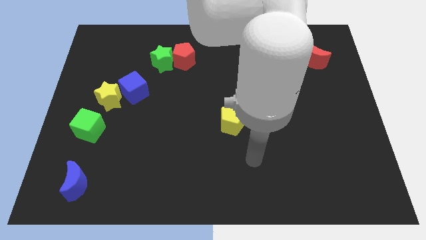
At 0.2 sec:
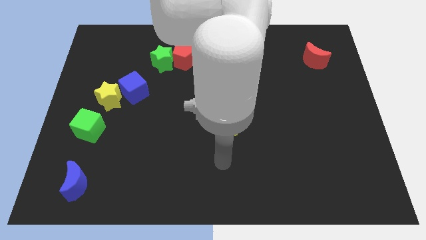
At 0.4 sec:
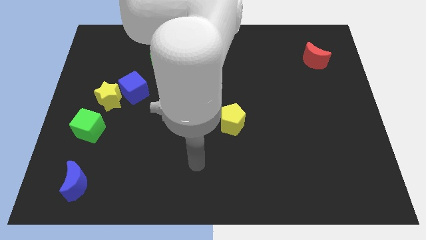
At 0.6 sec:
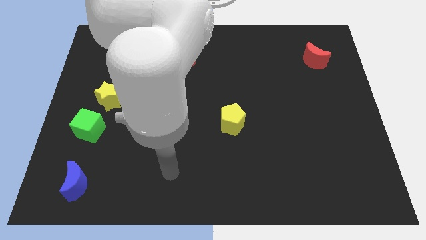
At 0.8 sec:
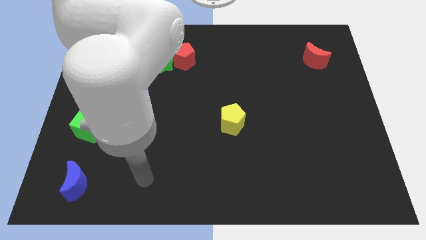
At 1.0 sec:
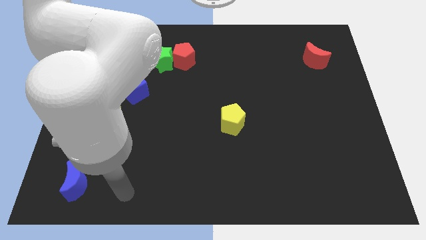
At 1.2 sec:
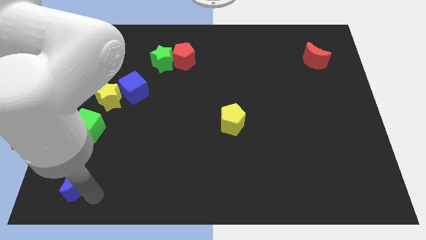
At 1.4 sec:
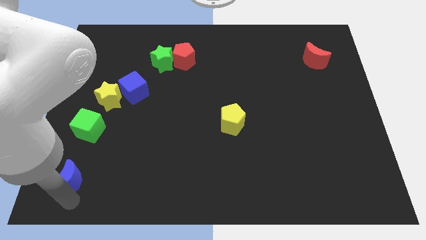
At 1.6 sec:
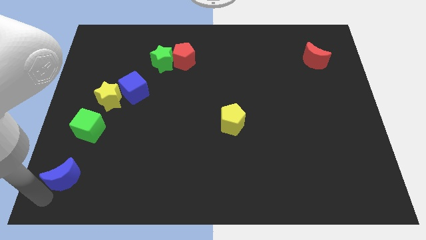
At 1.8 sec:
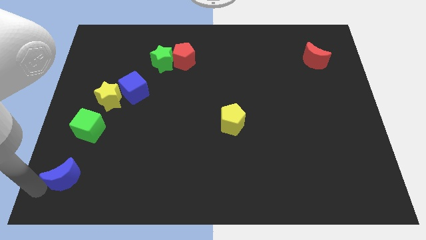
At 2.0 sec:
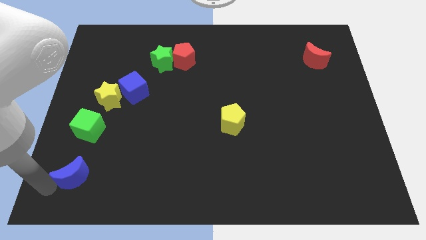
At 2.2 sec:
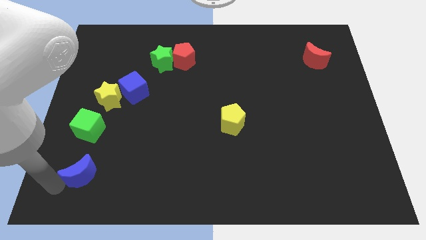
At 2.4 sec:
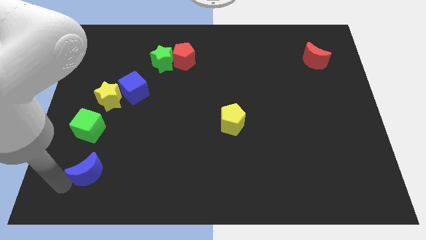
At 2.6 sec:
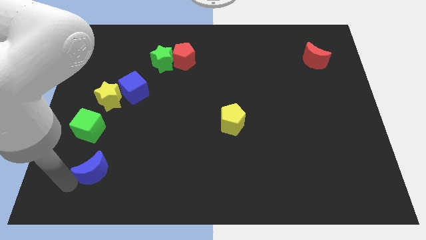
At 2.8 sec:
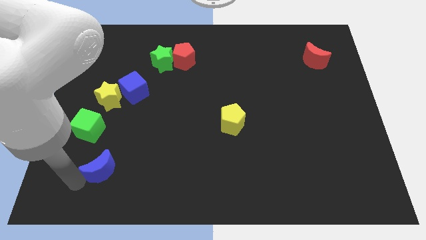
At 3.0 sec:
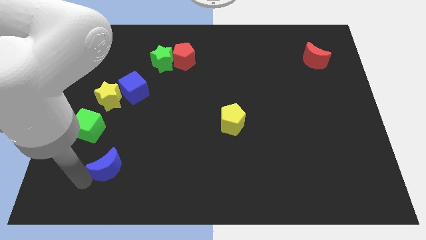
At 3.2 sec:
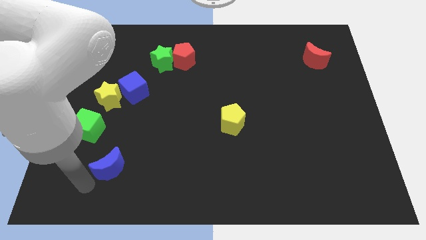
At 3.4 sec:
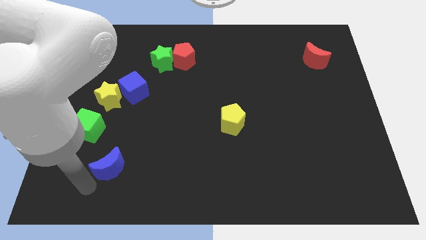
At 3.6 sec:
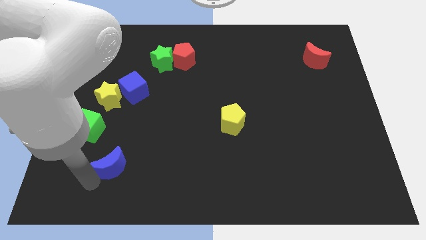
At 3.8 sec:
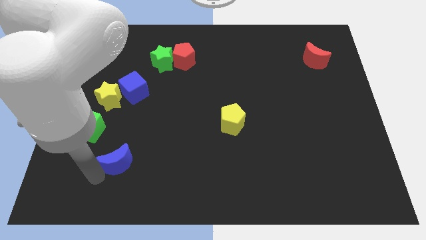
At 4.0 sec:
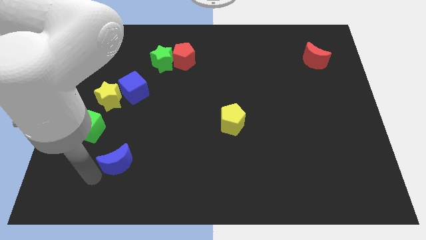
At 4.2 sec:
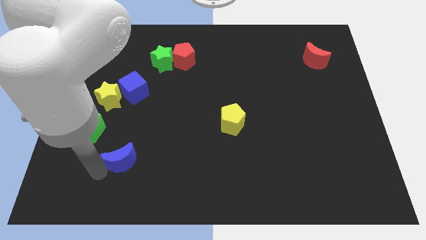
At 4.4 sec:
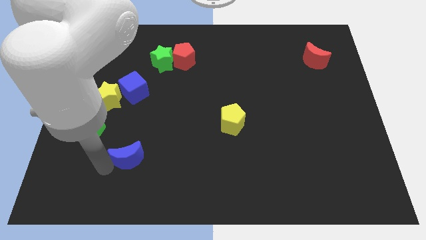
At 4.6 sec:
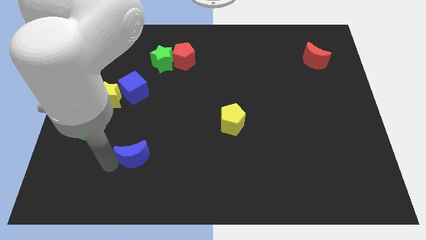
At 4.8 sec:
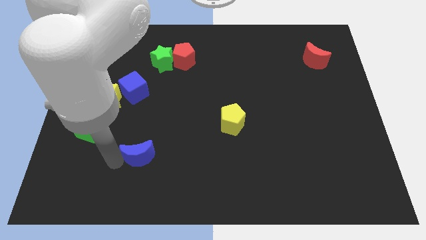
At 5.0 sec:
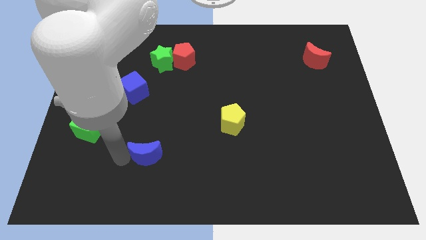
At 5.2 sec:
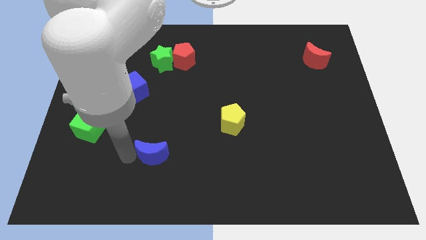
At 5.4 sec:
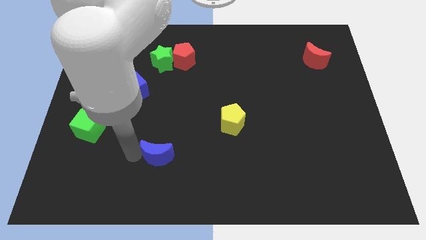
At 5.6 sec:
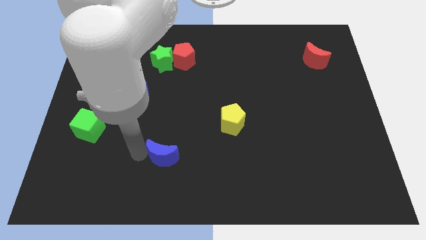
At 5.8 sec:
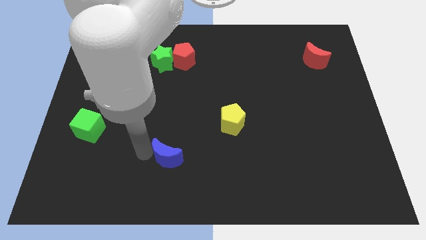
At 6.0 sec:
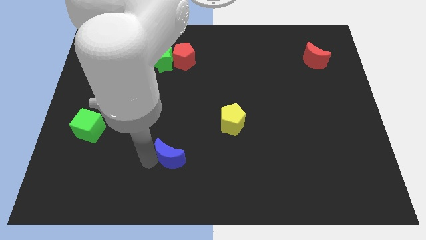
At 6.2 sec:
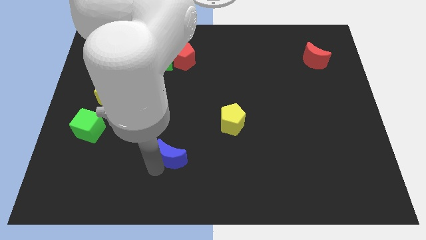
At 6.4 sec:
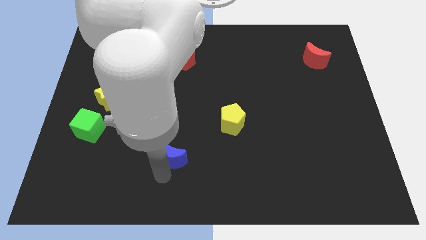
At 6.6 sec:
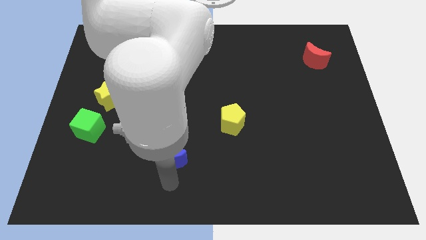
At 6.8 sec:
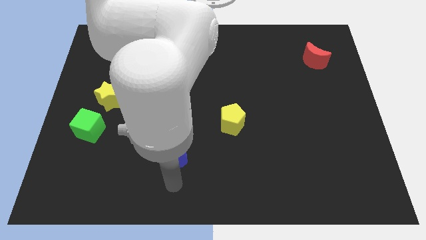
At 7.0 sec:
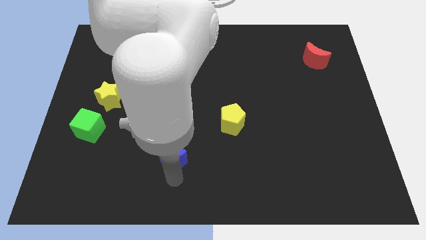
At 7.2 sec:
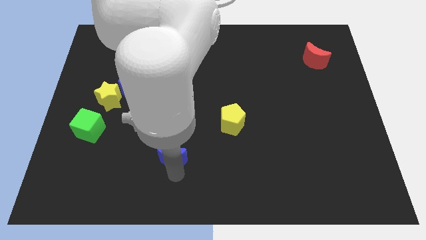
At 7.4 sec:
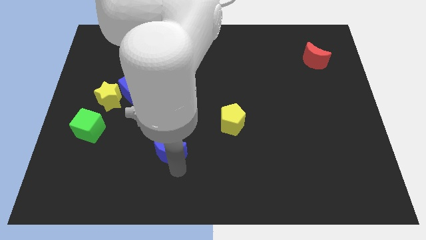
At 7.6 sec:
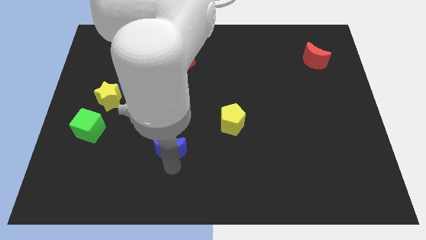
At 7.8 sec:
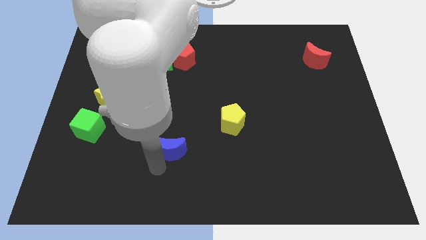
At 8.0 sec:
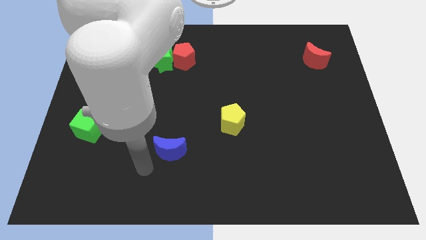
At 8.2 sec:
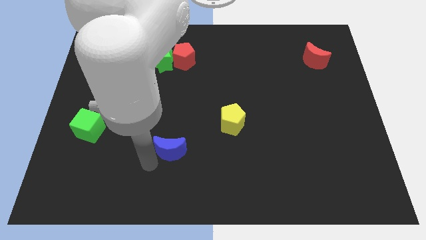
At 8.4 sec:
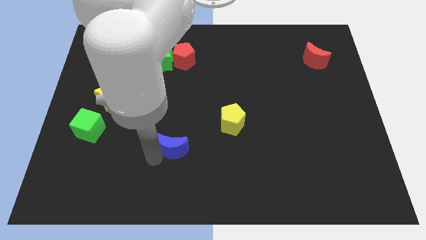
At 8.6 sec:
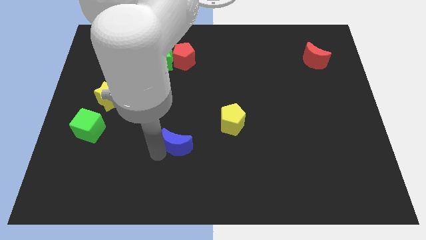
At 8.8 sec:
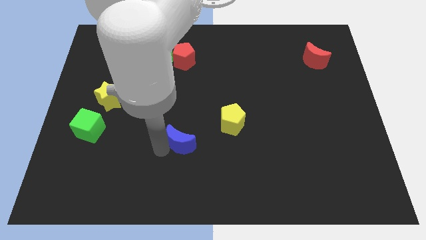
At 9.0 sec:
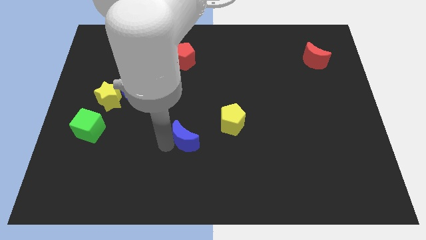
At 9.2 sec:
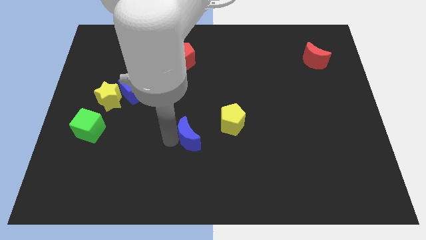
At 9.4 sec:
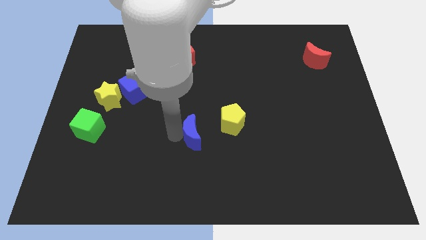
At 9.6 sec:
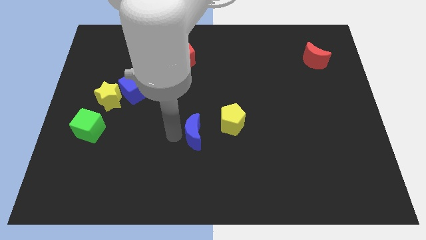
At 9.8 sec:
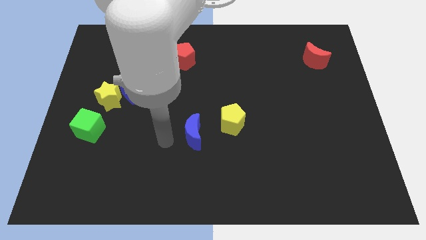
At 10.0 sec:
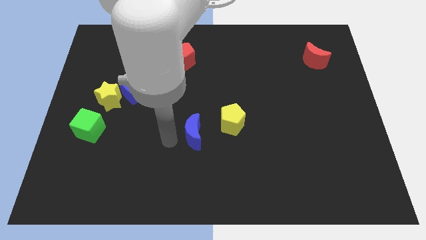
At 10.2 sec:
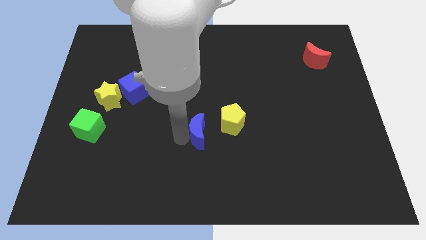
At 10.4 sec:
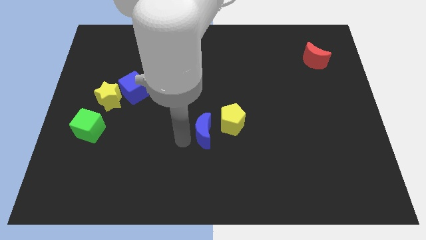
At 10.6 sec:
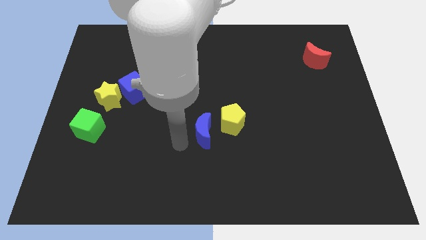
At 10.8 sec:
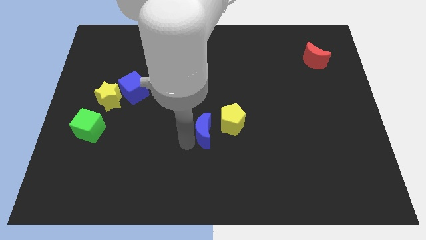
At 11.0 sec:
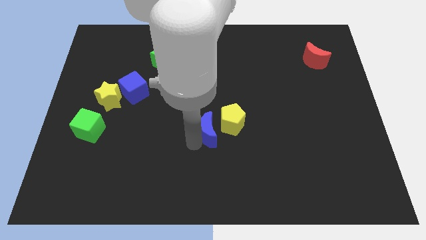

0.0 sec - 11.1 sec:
put the blue moon to the yellow pentagon

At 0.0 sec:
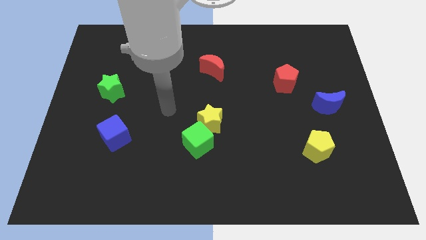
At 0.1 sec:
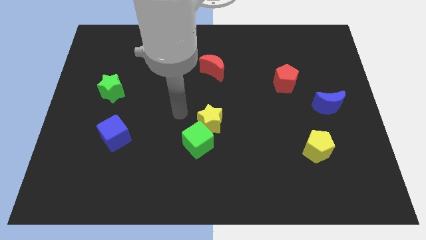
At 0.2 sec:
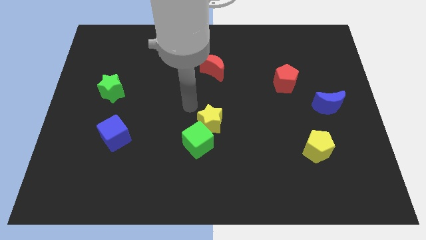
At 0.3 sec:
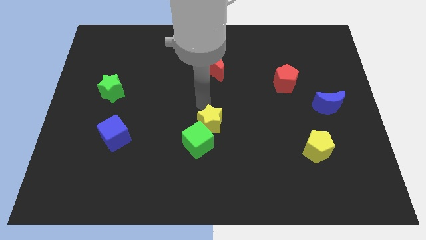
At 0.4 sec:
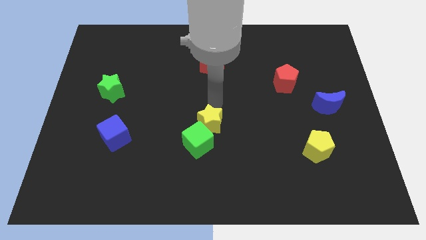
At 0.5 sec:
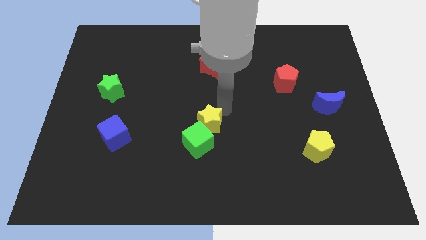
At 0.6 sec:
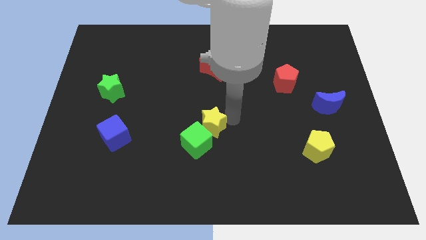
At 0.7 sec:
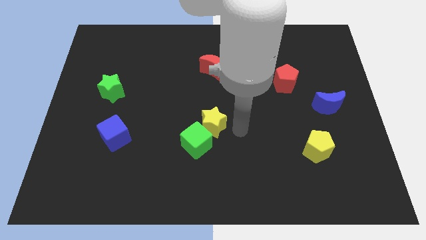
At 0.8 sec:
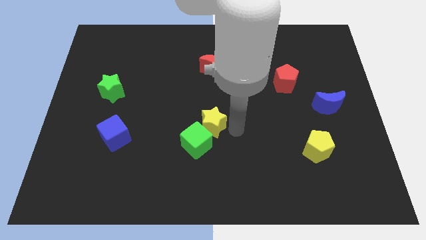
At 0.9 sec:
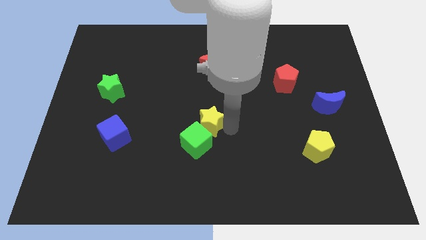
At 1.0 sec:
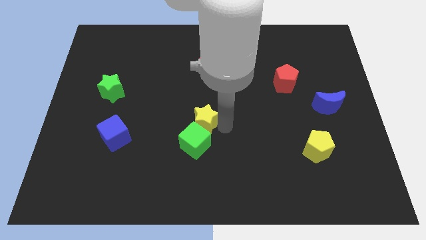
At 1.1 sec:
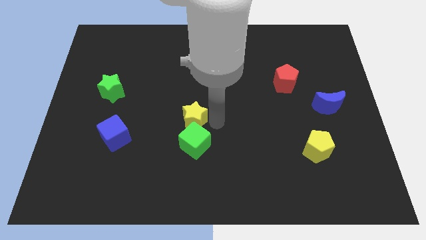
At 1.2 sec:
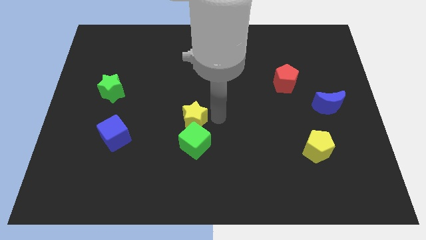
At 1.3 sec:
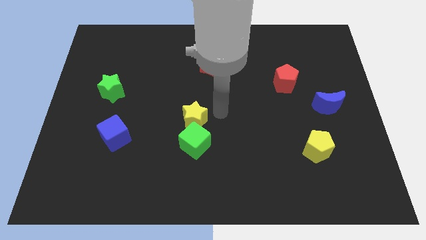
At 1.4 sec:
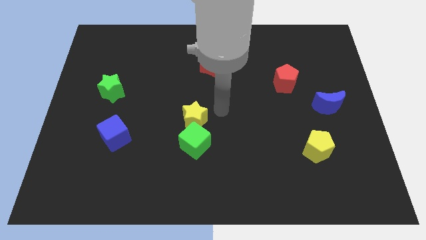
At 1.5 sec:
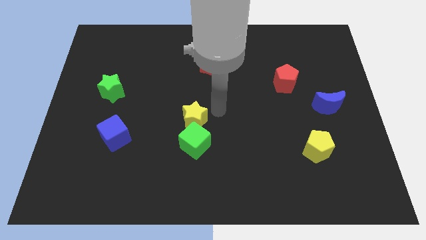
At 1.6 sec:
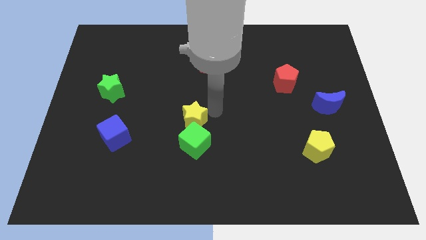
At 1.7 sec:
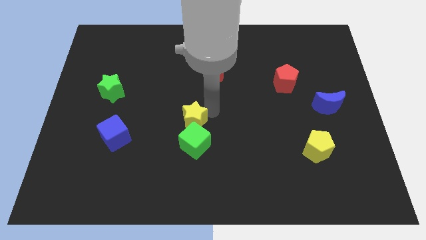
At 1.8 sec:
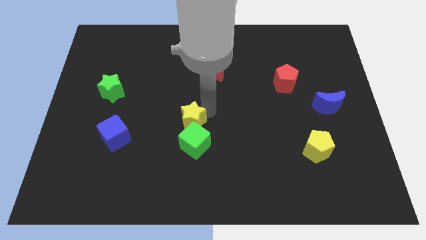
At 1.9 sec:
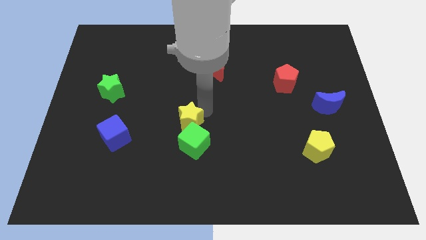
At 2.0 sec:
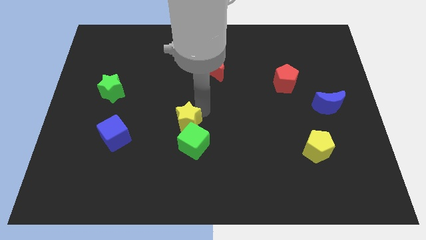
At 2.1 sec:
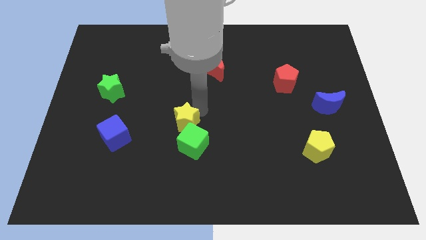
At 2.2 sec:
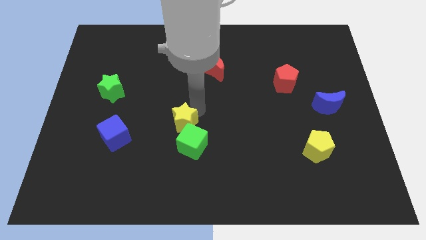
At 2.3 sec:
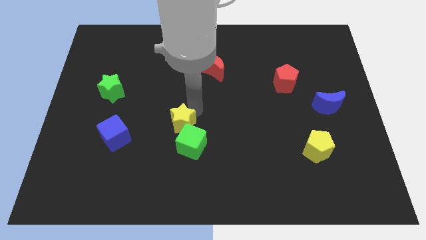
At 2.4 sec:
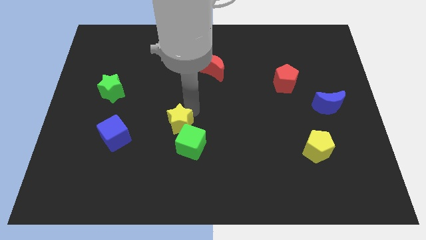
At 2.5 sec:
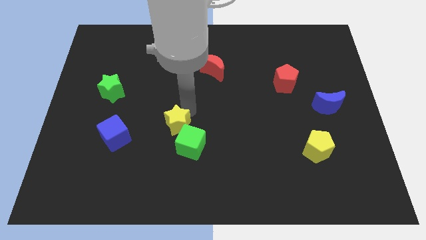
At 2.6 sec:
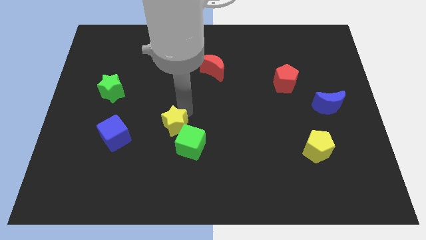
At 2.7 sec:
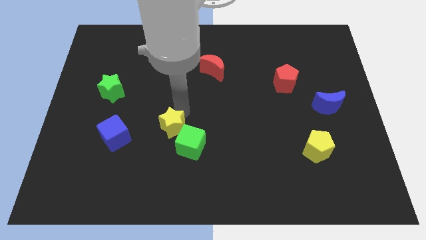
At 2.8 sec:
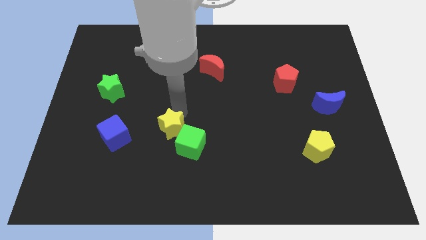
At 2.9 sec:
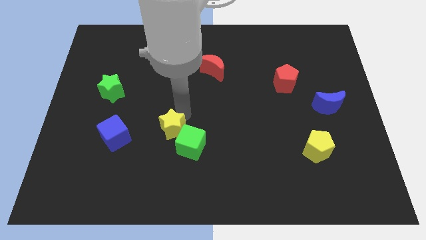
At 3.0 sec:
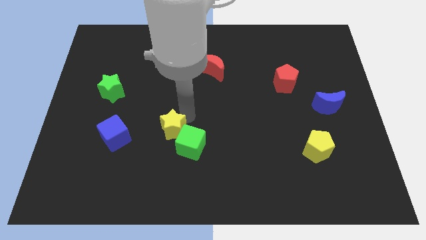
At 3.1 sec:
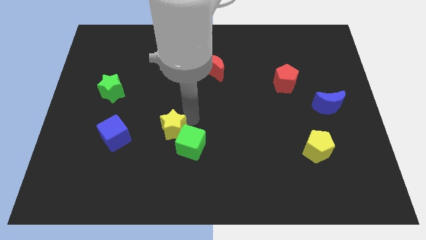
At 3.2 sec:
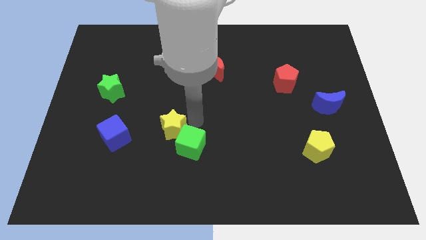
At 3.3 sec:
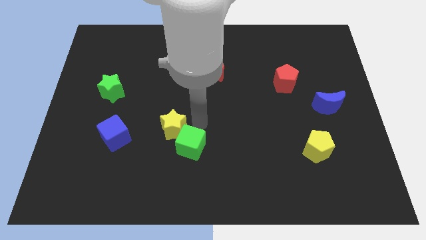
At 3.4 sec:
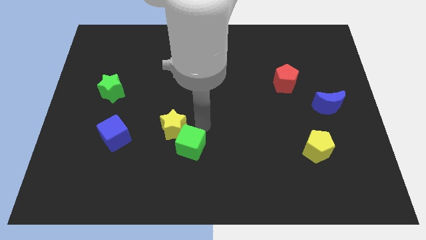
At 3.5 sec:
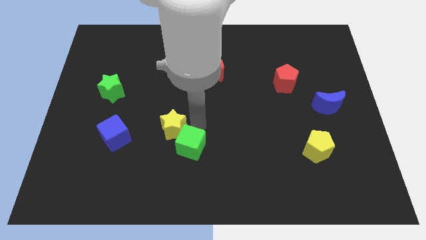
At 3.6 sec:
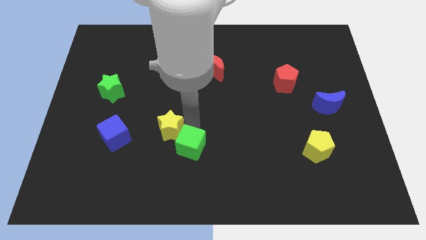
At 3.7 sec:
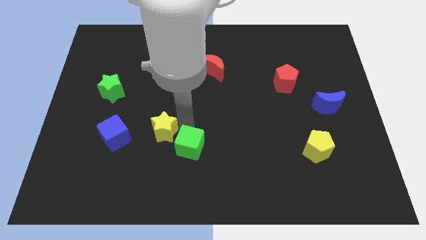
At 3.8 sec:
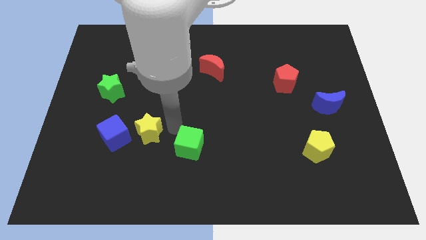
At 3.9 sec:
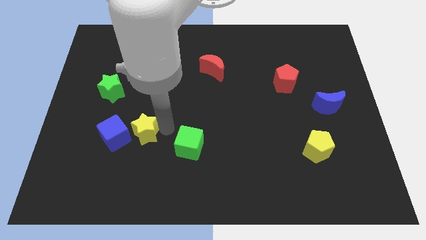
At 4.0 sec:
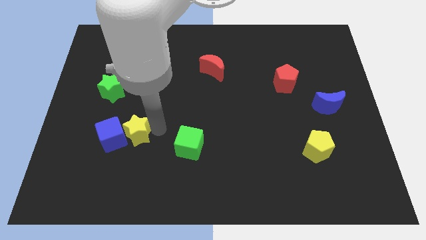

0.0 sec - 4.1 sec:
move the yellow star to the blue cube
